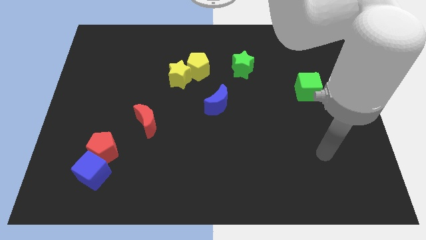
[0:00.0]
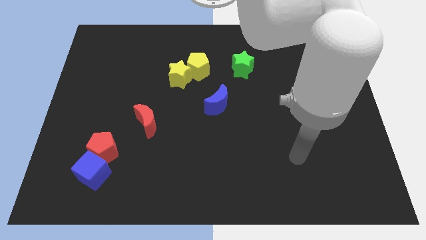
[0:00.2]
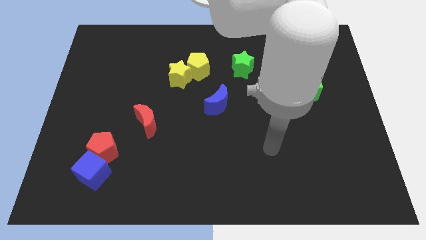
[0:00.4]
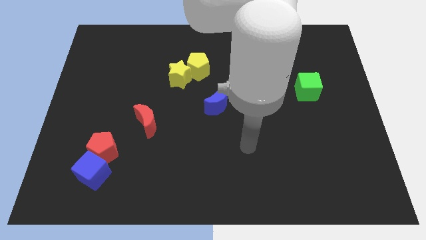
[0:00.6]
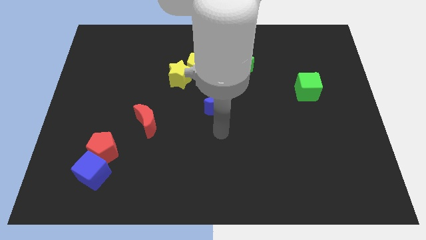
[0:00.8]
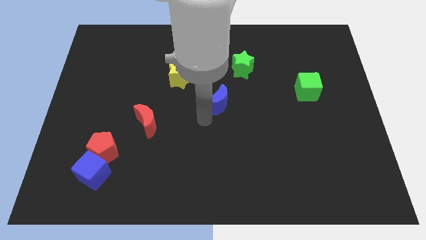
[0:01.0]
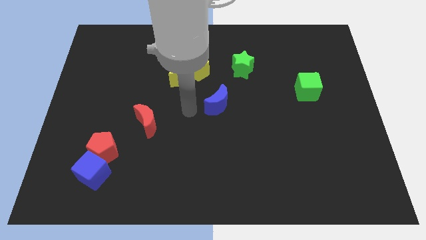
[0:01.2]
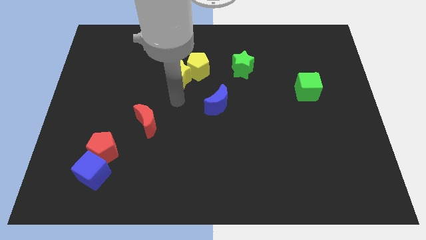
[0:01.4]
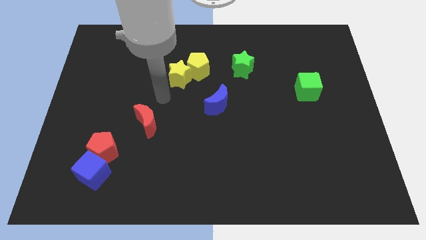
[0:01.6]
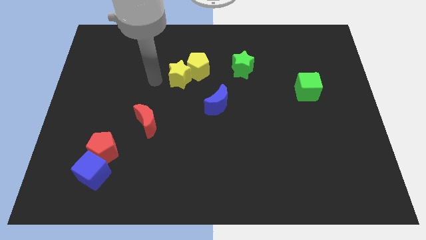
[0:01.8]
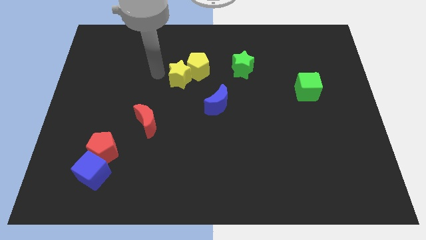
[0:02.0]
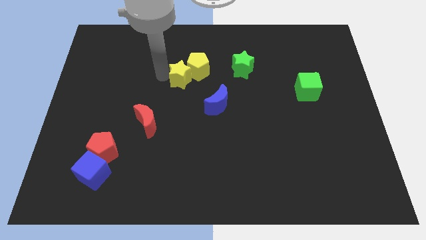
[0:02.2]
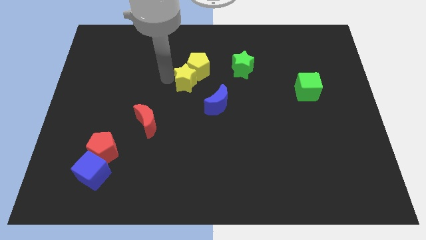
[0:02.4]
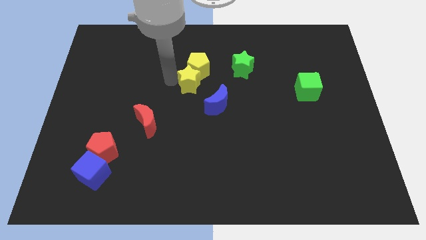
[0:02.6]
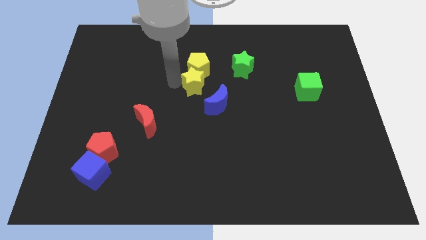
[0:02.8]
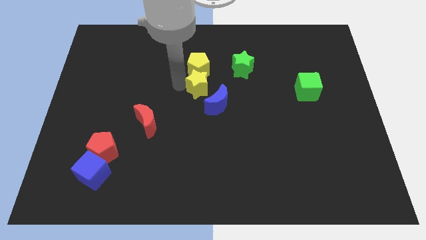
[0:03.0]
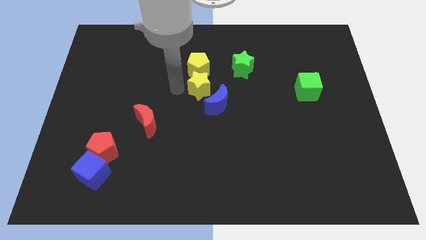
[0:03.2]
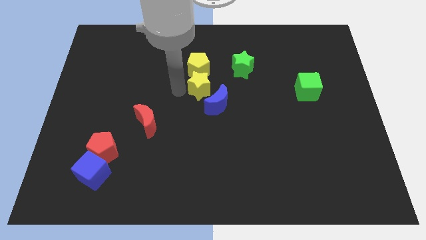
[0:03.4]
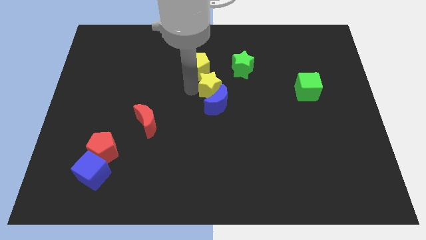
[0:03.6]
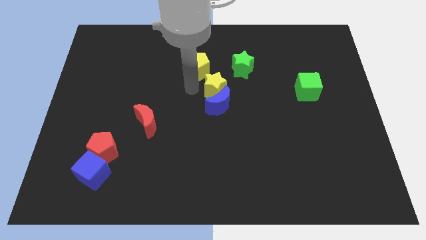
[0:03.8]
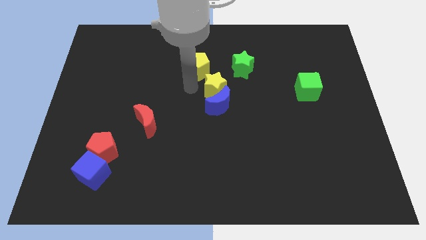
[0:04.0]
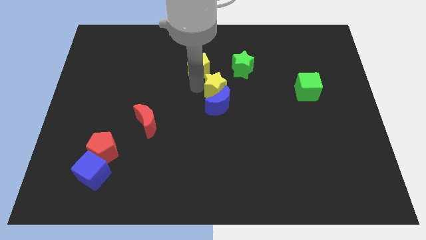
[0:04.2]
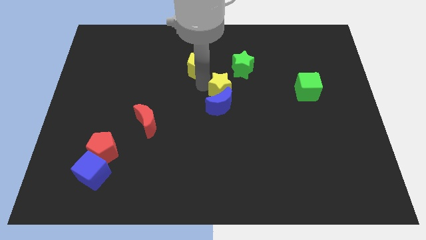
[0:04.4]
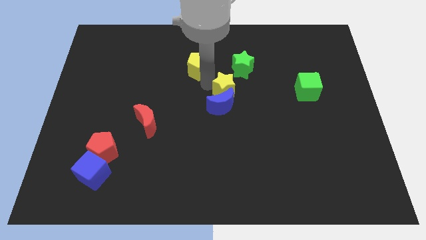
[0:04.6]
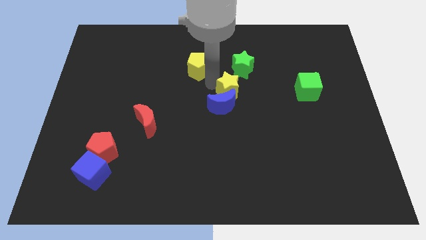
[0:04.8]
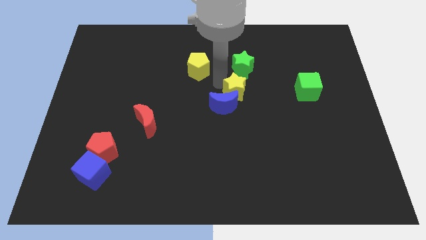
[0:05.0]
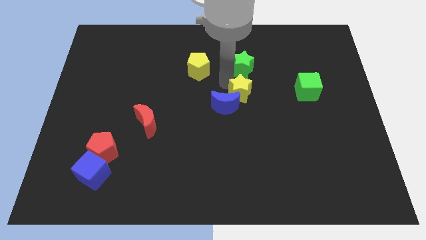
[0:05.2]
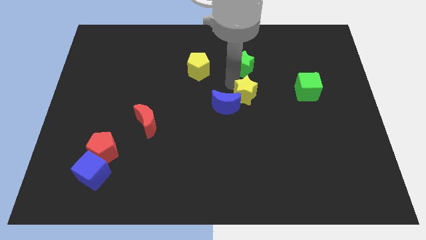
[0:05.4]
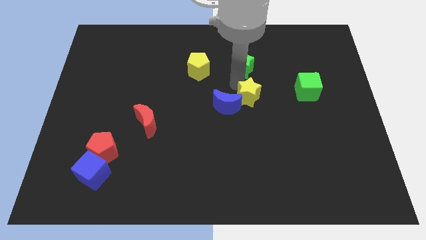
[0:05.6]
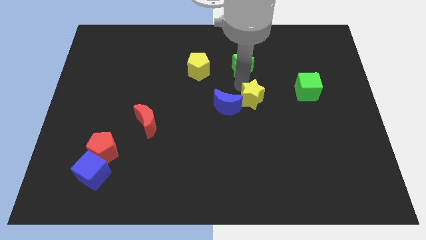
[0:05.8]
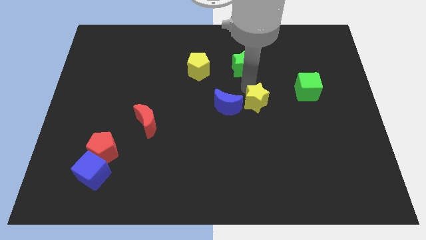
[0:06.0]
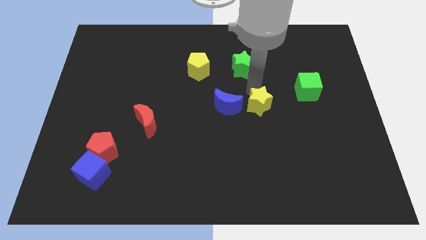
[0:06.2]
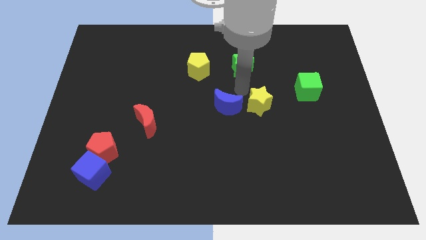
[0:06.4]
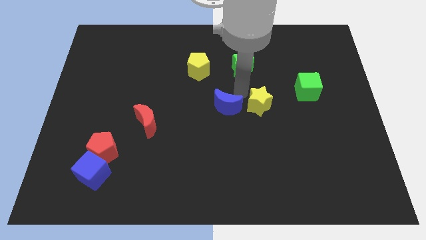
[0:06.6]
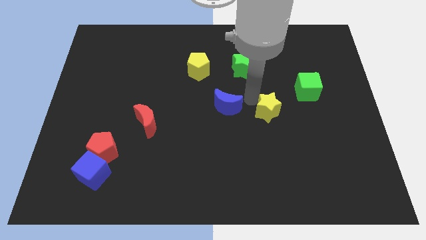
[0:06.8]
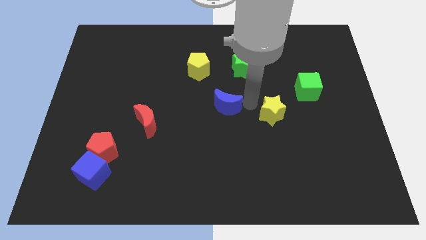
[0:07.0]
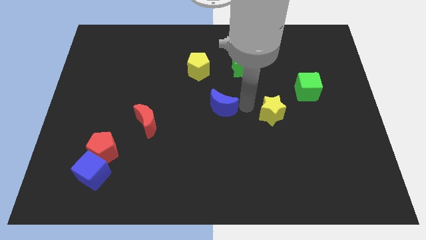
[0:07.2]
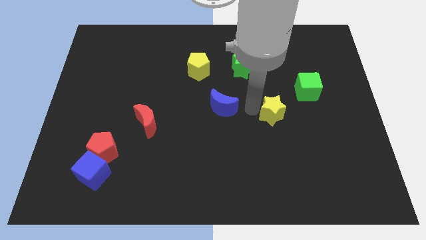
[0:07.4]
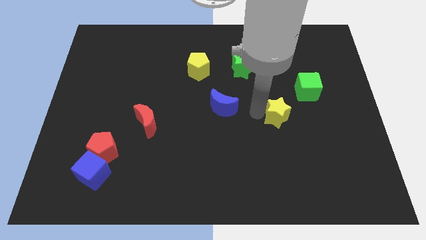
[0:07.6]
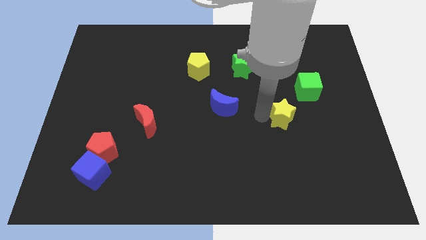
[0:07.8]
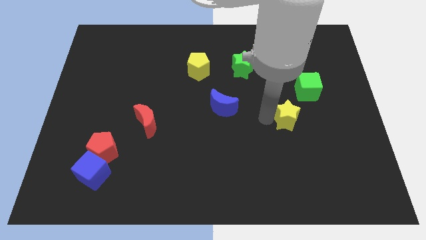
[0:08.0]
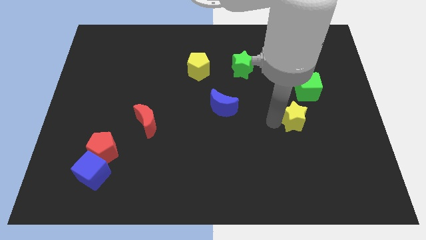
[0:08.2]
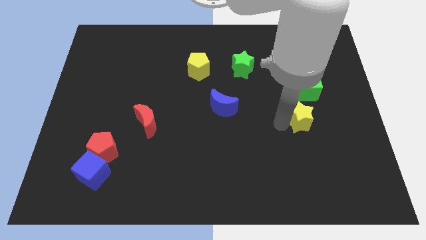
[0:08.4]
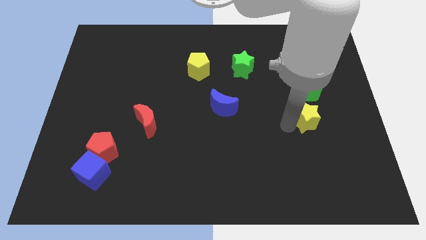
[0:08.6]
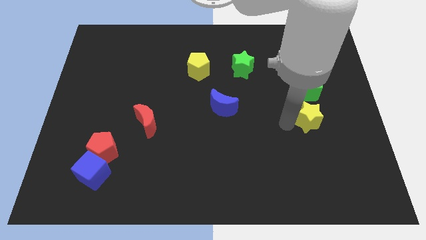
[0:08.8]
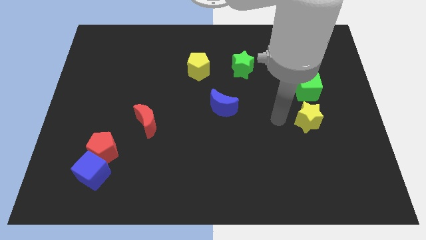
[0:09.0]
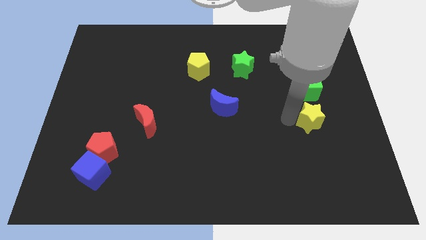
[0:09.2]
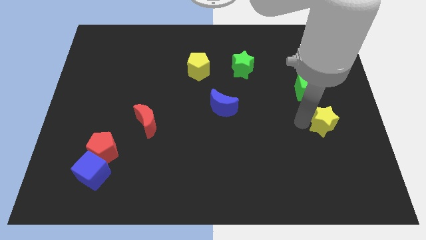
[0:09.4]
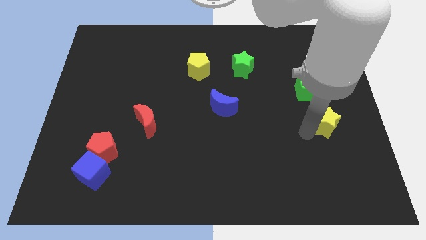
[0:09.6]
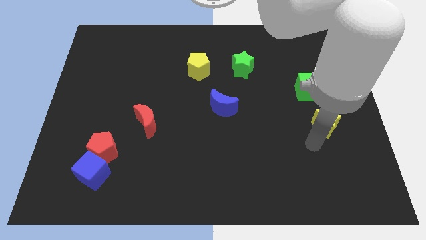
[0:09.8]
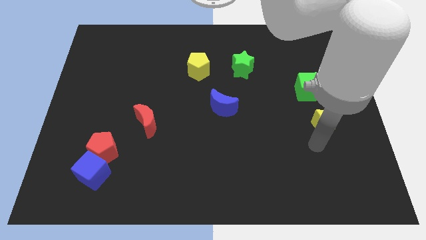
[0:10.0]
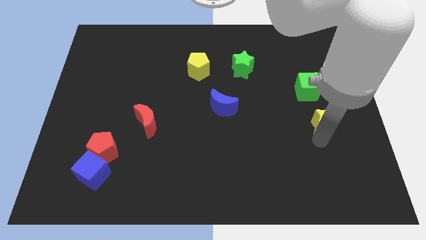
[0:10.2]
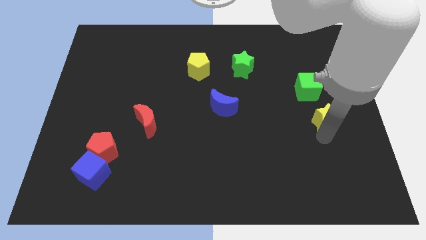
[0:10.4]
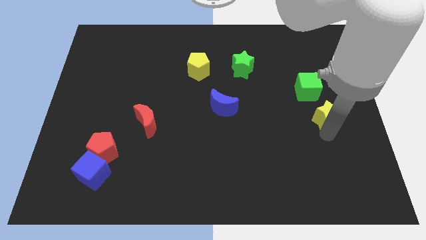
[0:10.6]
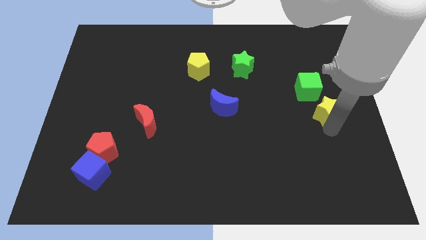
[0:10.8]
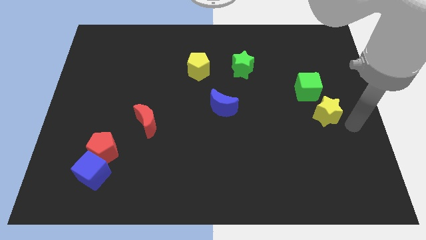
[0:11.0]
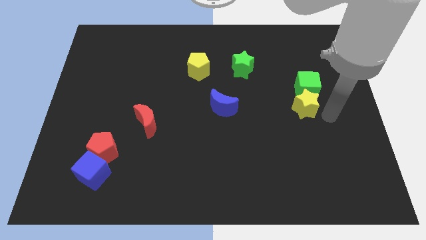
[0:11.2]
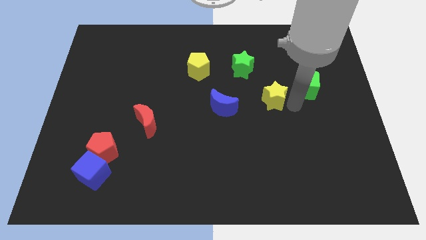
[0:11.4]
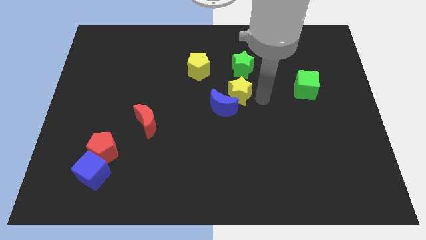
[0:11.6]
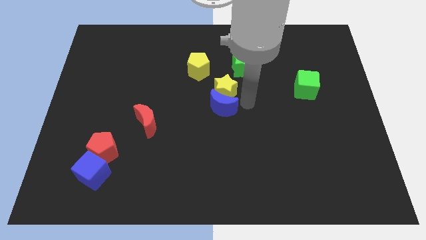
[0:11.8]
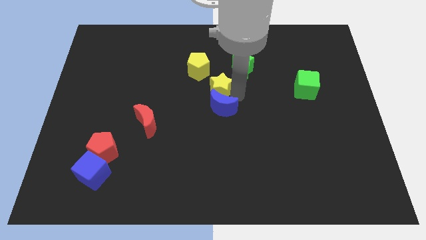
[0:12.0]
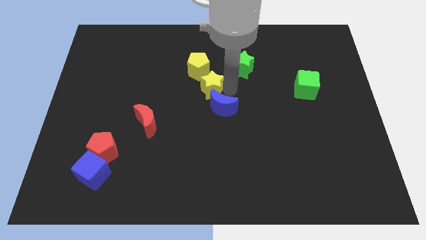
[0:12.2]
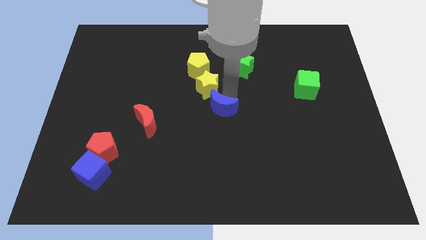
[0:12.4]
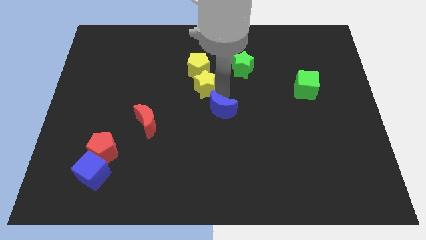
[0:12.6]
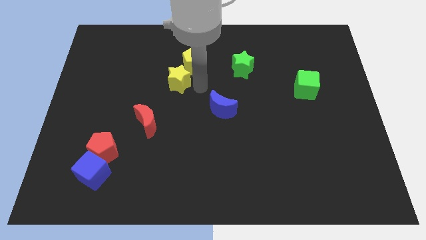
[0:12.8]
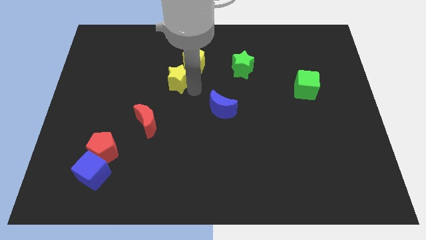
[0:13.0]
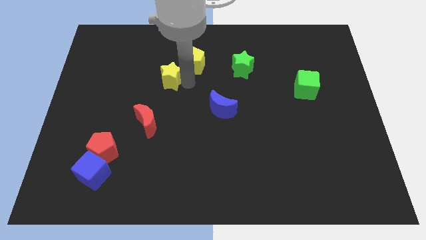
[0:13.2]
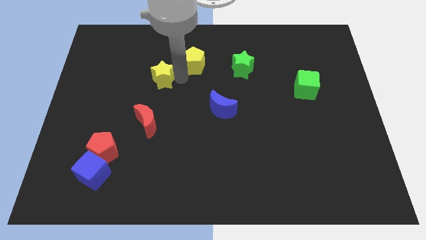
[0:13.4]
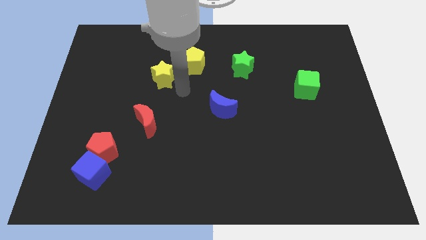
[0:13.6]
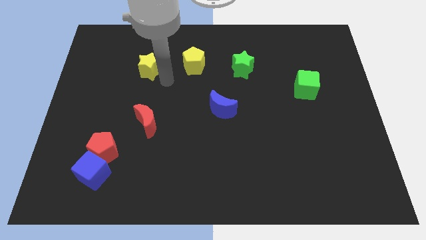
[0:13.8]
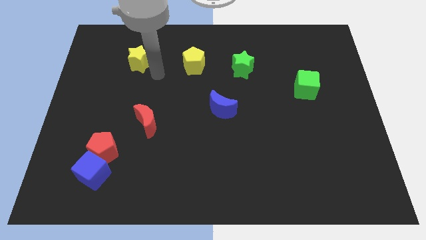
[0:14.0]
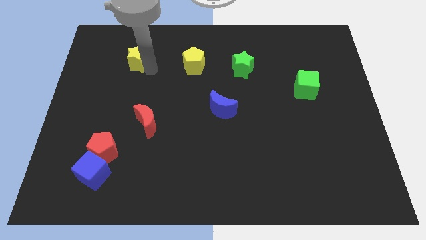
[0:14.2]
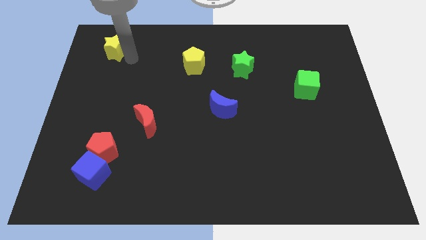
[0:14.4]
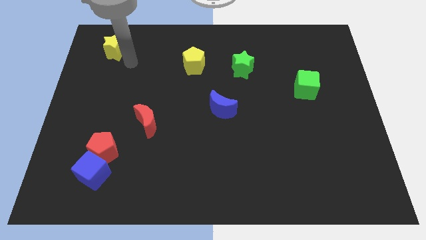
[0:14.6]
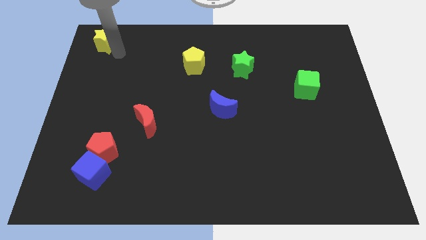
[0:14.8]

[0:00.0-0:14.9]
put the yellow star to the top left of the board
